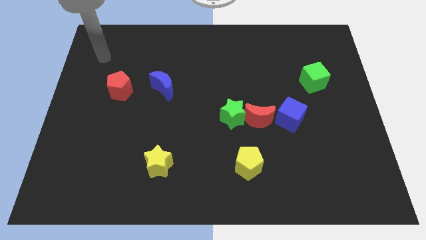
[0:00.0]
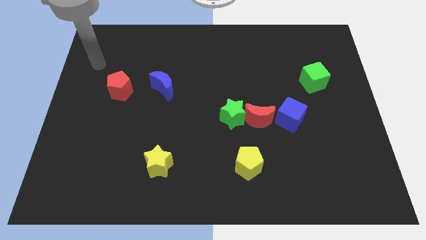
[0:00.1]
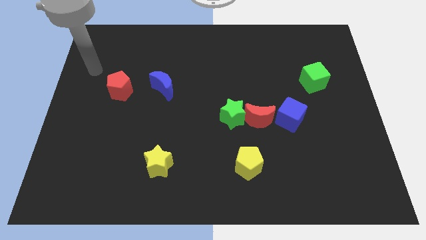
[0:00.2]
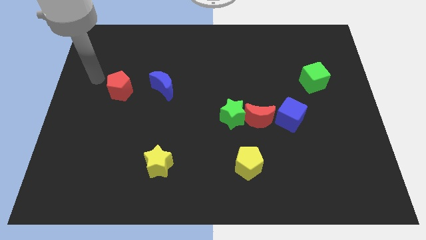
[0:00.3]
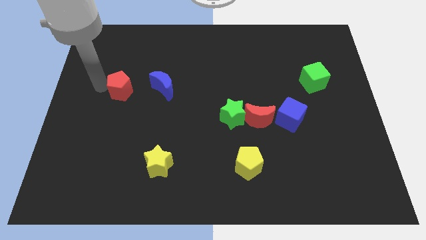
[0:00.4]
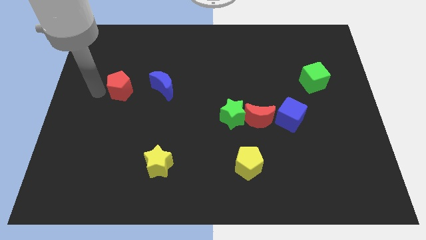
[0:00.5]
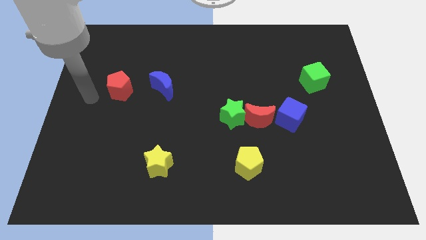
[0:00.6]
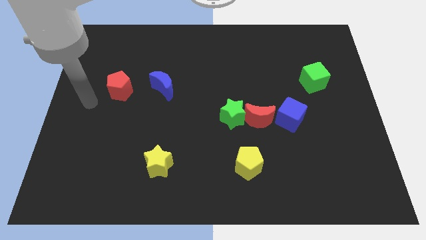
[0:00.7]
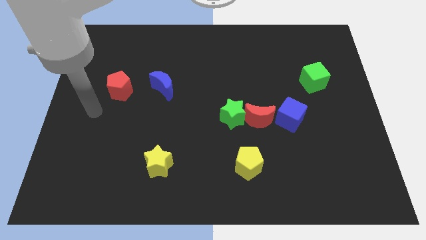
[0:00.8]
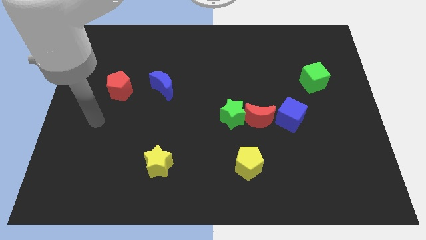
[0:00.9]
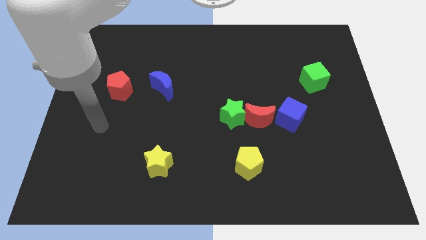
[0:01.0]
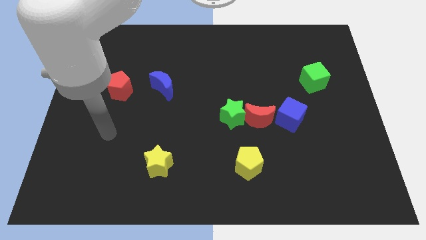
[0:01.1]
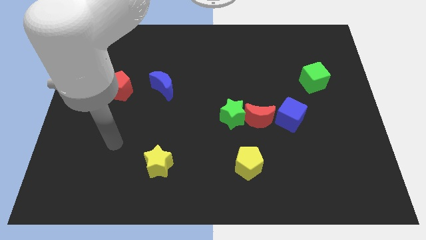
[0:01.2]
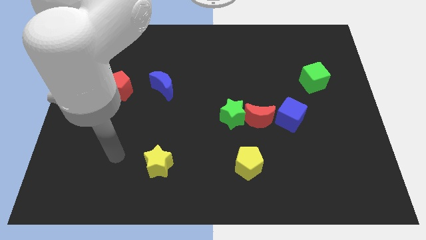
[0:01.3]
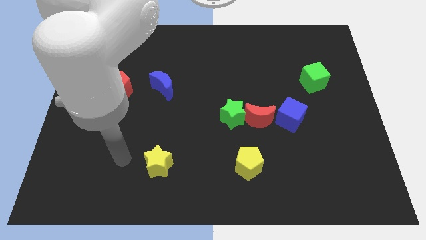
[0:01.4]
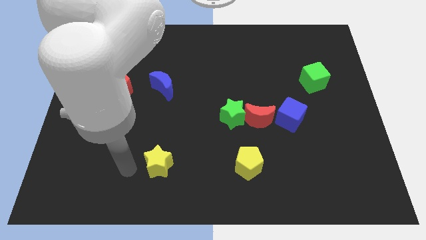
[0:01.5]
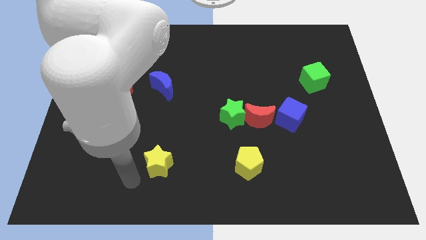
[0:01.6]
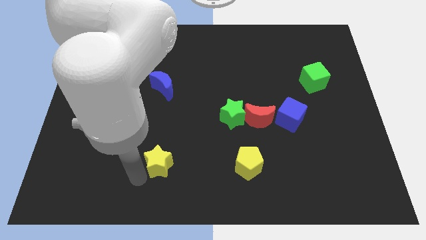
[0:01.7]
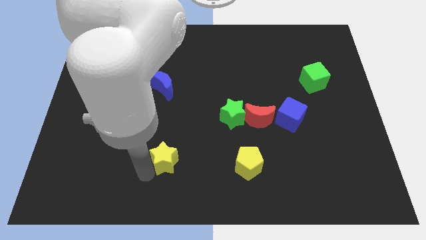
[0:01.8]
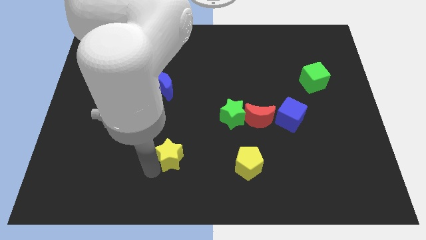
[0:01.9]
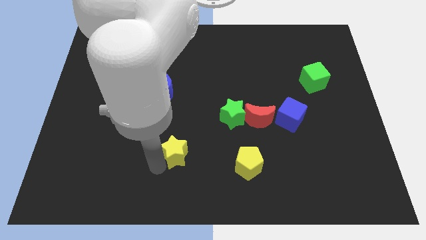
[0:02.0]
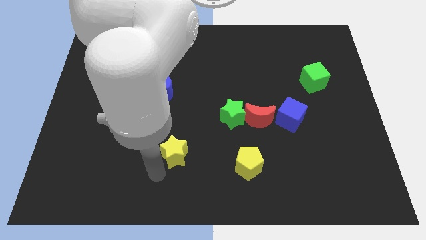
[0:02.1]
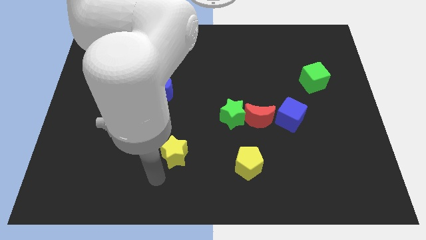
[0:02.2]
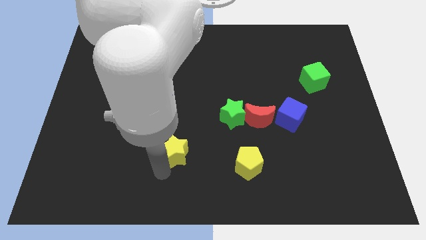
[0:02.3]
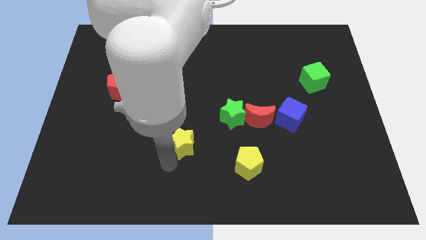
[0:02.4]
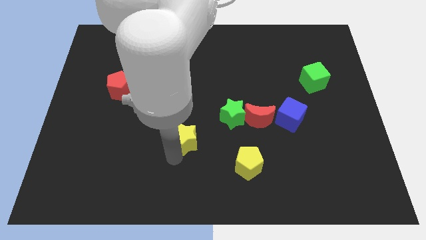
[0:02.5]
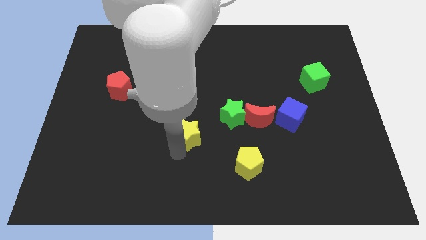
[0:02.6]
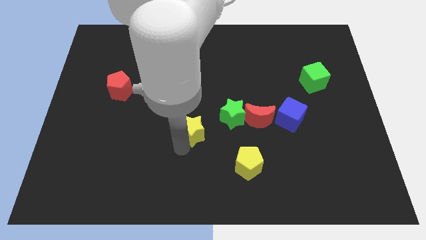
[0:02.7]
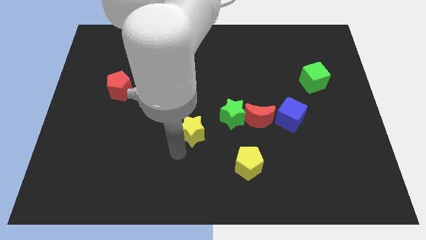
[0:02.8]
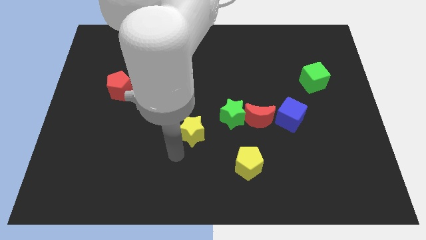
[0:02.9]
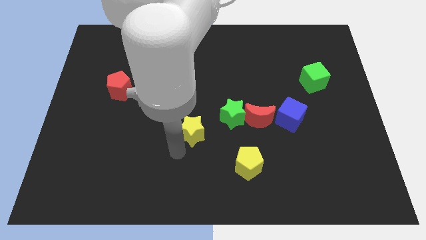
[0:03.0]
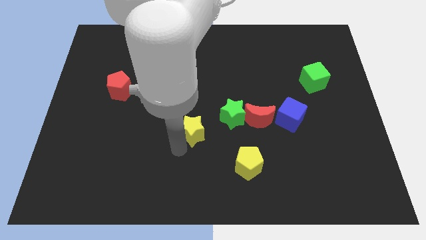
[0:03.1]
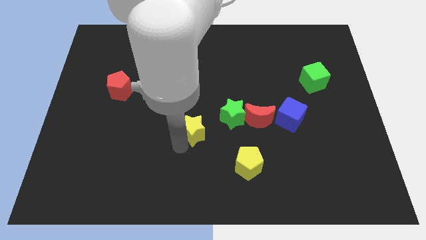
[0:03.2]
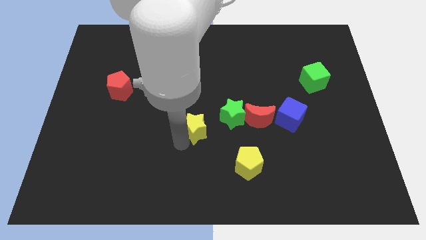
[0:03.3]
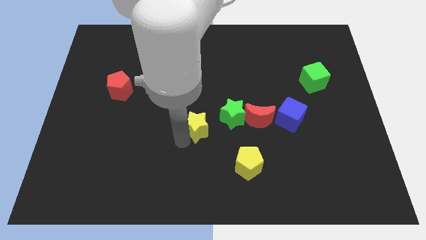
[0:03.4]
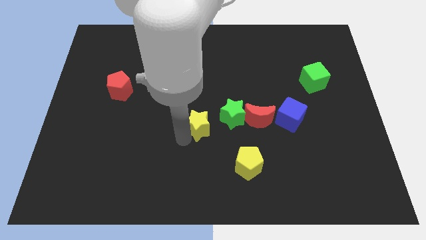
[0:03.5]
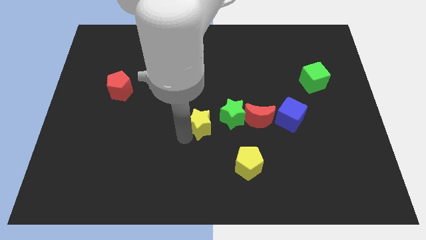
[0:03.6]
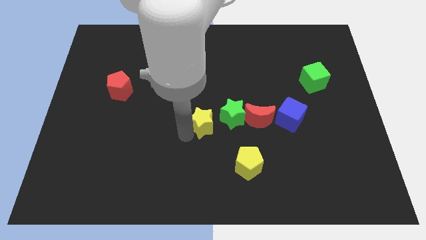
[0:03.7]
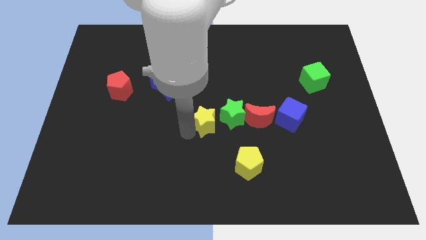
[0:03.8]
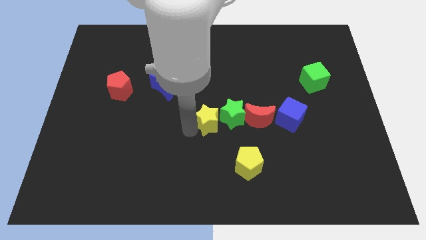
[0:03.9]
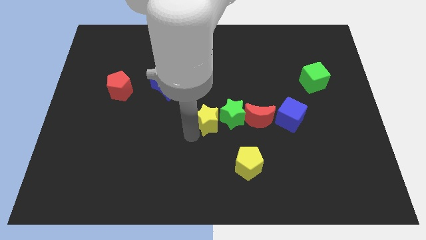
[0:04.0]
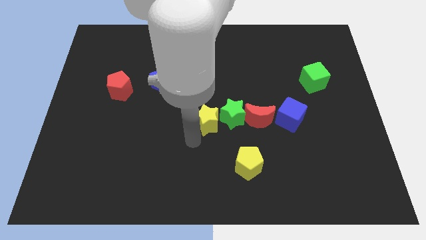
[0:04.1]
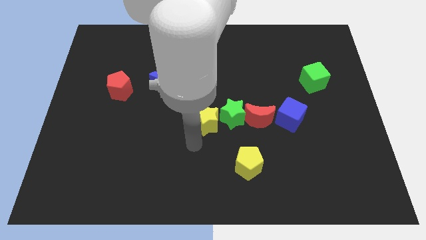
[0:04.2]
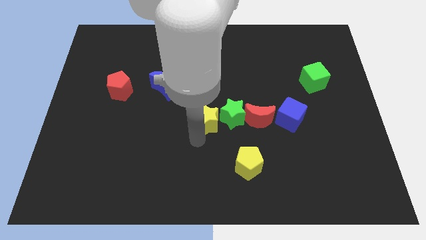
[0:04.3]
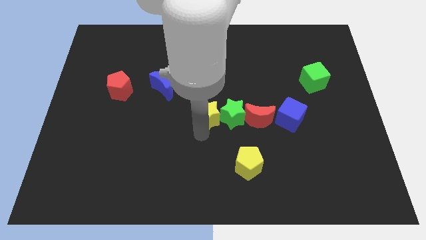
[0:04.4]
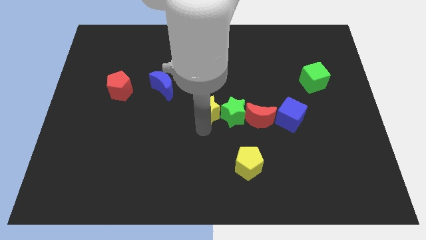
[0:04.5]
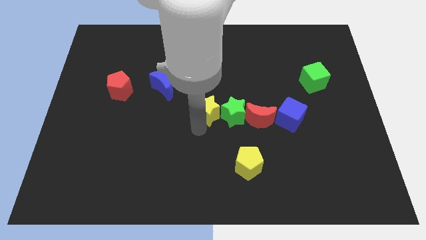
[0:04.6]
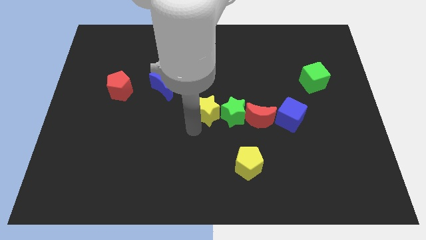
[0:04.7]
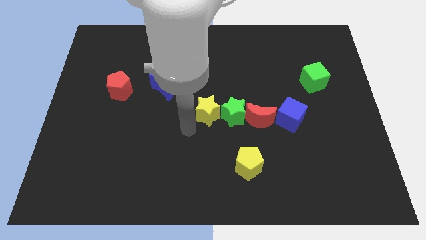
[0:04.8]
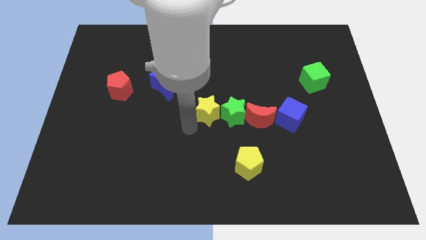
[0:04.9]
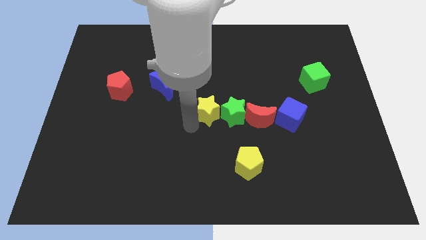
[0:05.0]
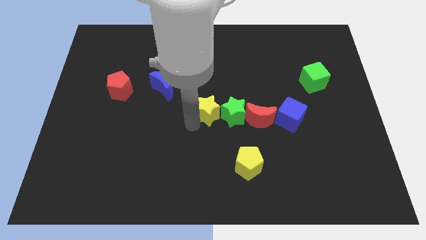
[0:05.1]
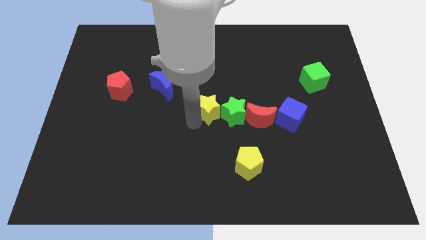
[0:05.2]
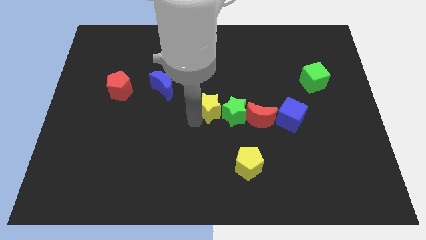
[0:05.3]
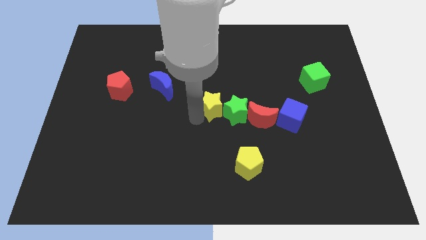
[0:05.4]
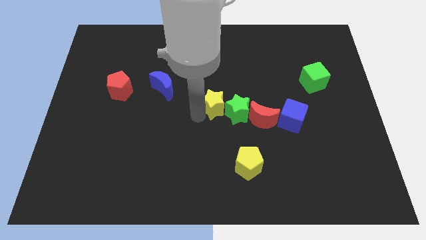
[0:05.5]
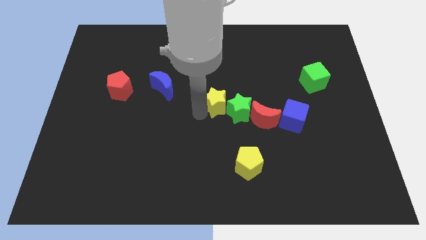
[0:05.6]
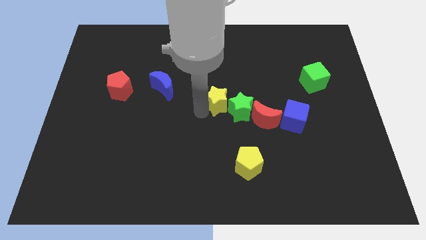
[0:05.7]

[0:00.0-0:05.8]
move the yellow star diagonally upwards and right

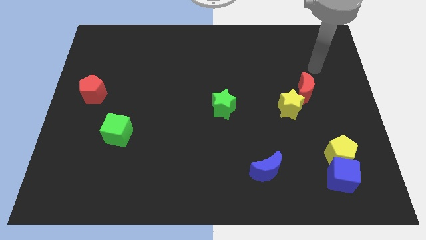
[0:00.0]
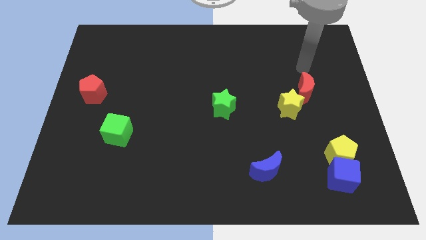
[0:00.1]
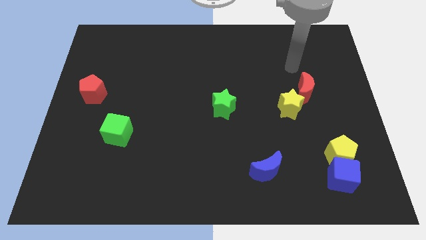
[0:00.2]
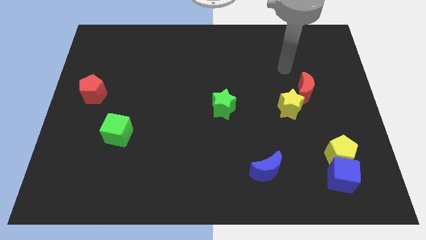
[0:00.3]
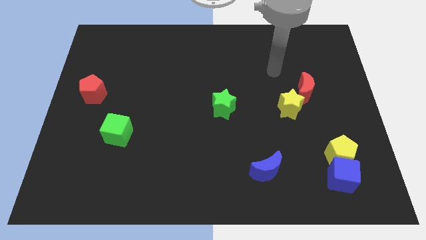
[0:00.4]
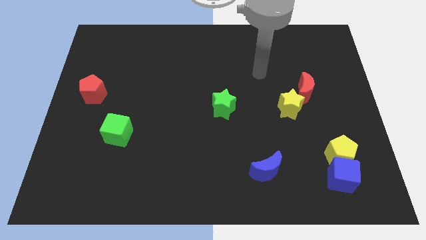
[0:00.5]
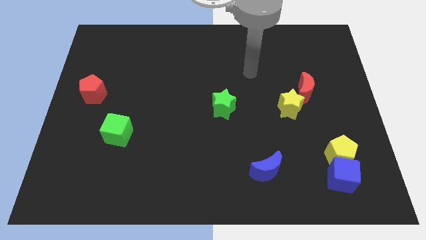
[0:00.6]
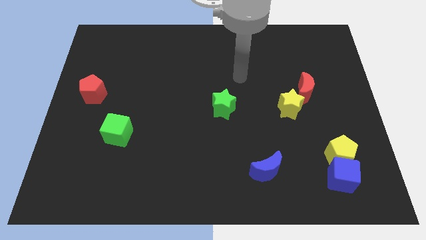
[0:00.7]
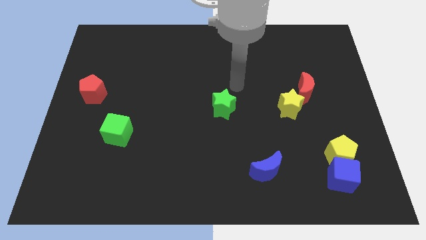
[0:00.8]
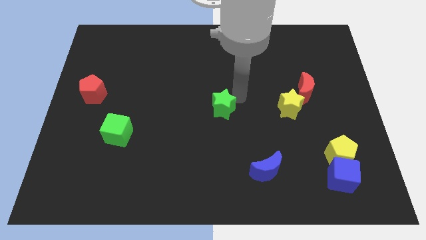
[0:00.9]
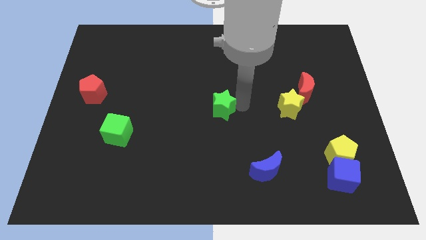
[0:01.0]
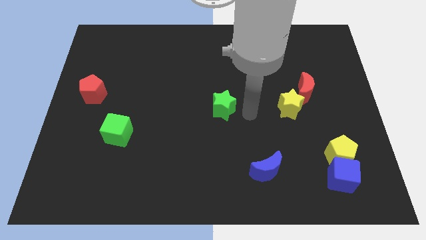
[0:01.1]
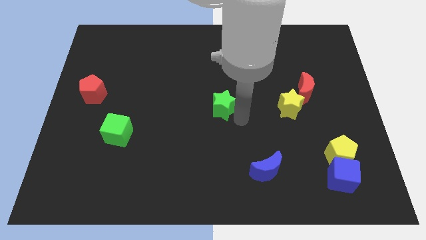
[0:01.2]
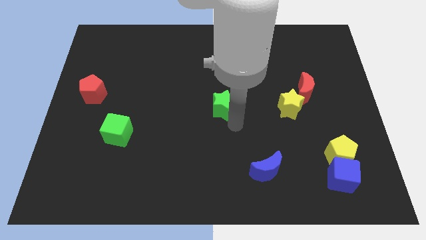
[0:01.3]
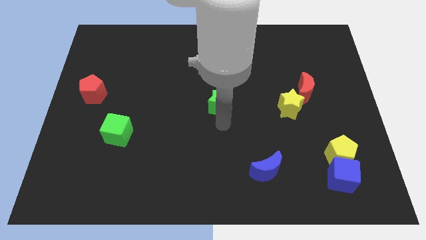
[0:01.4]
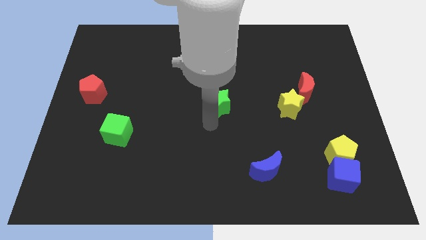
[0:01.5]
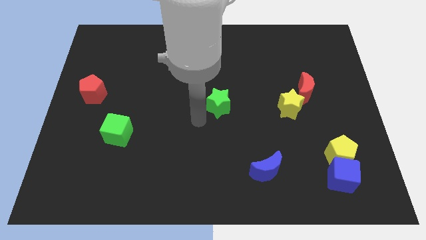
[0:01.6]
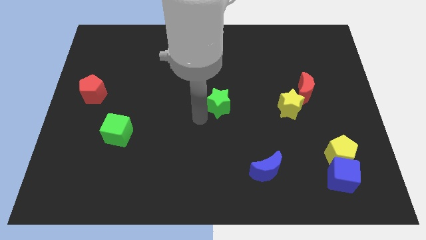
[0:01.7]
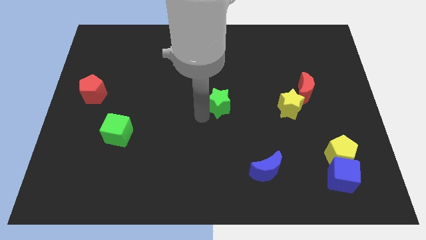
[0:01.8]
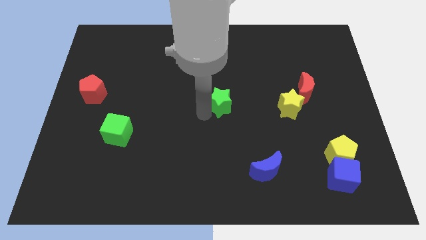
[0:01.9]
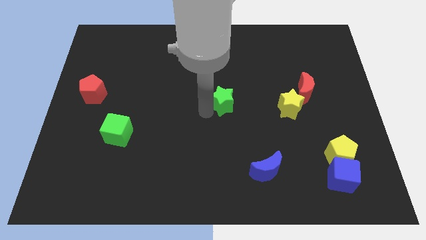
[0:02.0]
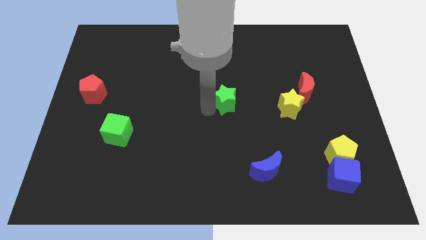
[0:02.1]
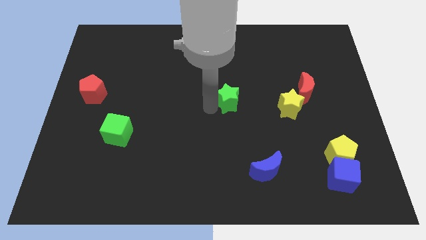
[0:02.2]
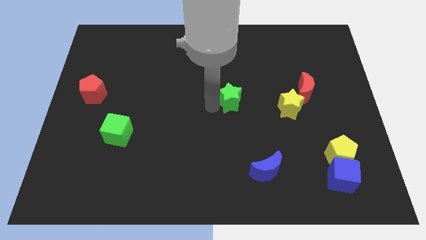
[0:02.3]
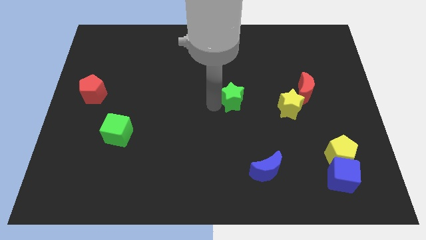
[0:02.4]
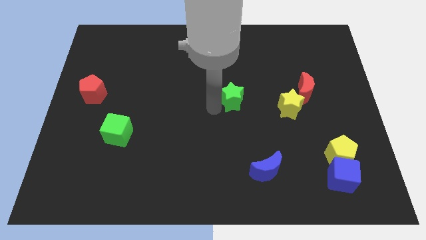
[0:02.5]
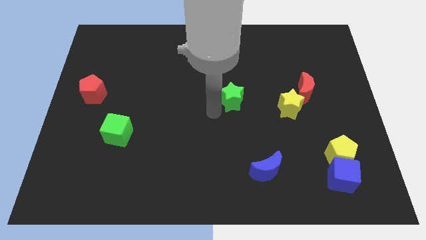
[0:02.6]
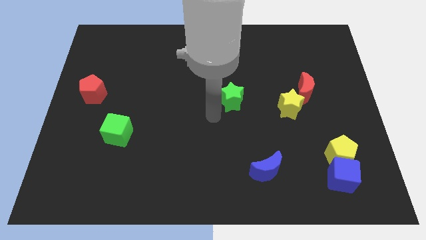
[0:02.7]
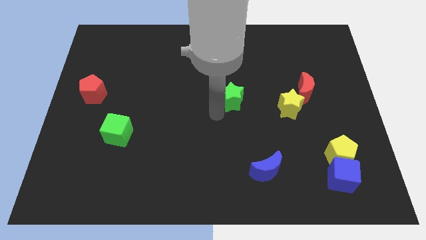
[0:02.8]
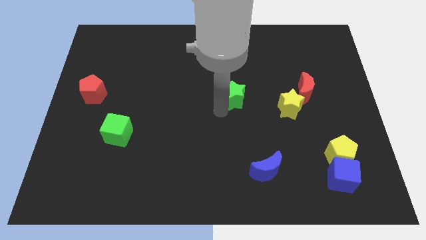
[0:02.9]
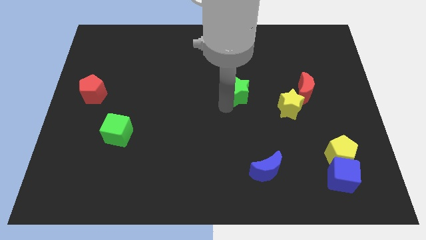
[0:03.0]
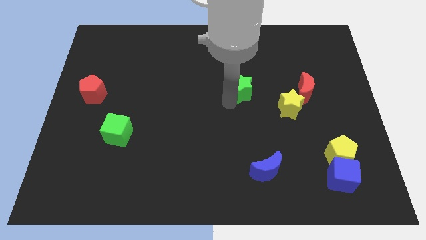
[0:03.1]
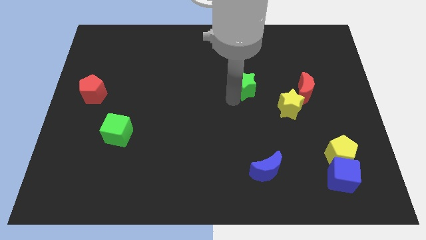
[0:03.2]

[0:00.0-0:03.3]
push the green star a little up and to the right
